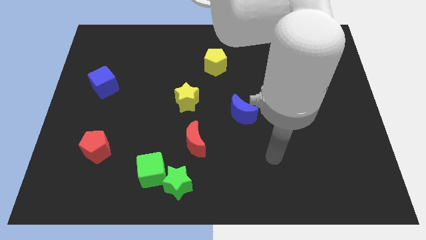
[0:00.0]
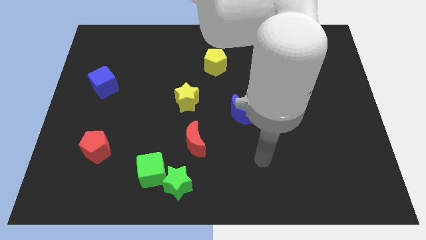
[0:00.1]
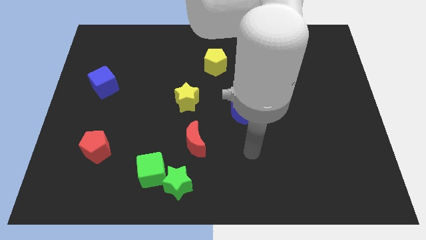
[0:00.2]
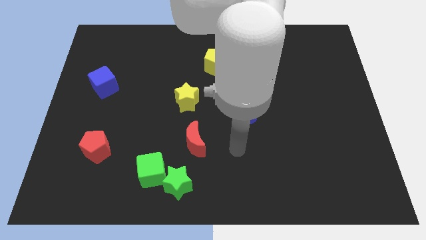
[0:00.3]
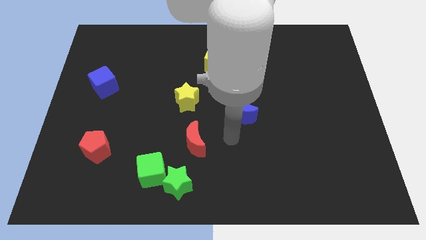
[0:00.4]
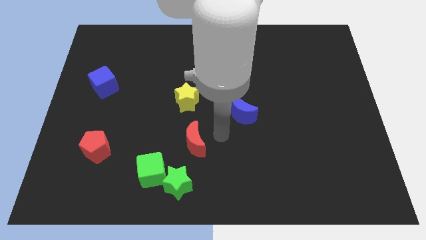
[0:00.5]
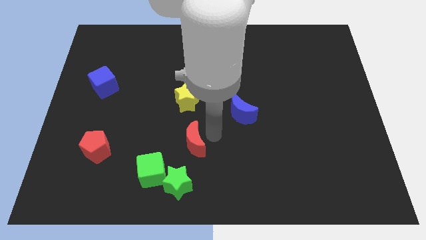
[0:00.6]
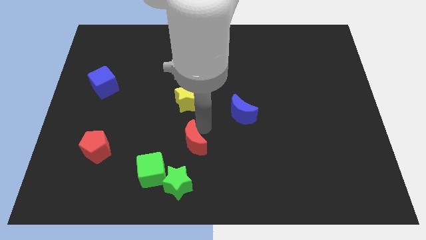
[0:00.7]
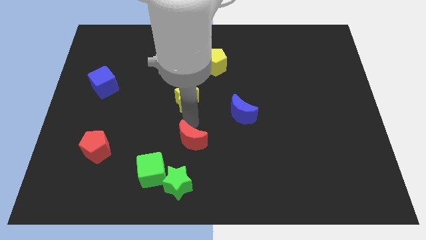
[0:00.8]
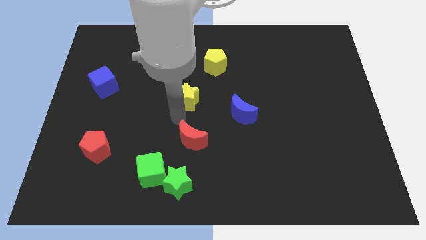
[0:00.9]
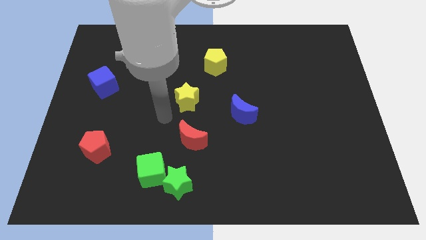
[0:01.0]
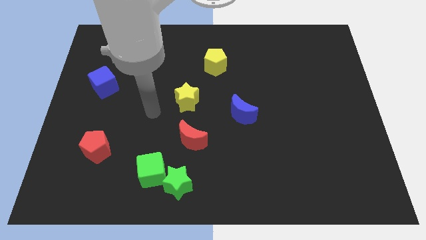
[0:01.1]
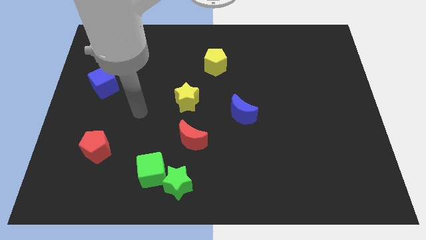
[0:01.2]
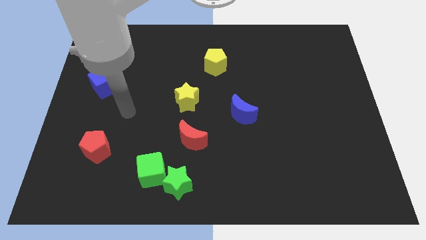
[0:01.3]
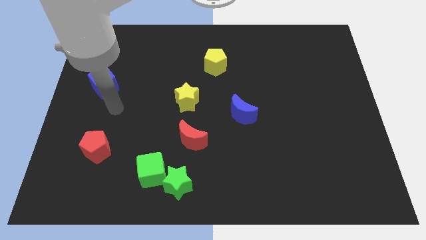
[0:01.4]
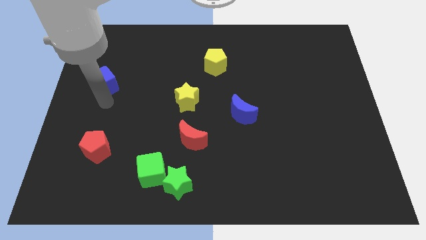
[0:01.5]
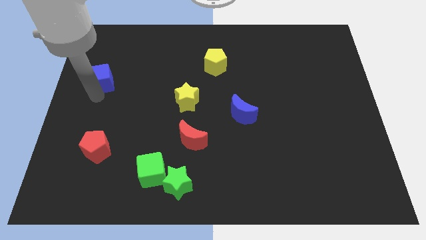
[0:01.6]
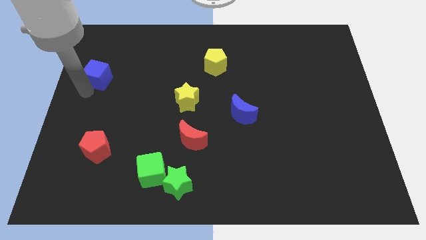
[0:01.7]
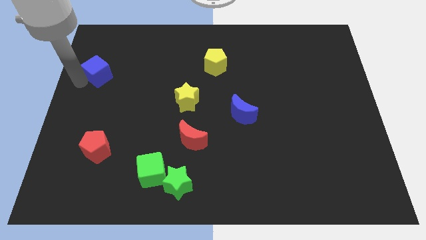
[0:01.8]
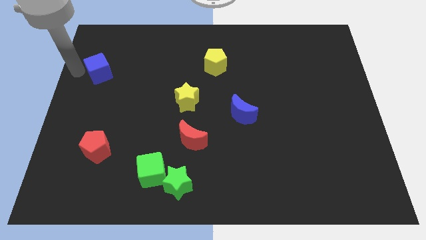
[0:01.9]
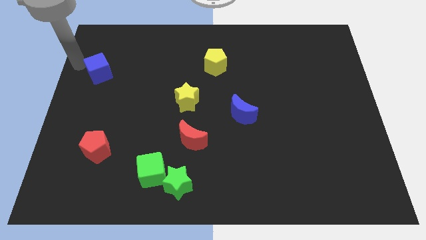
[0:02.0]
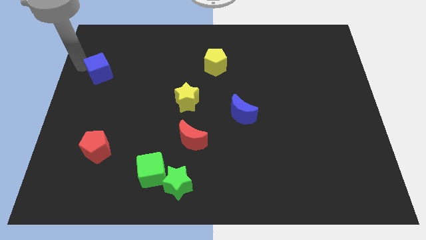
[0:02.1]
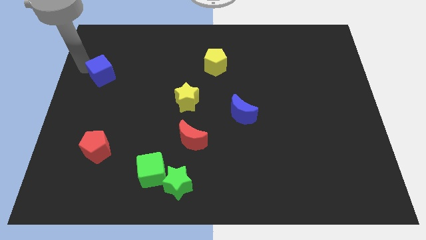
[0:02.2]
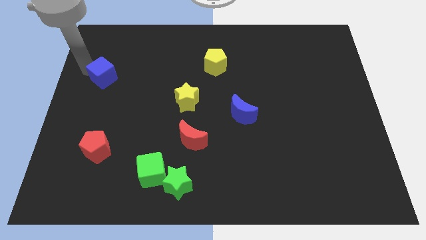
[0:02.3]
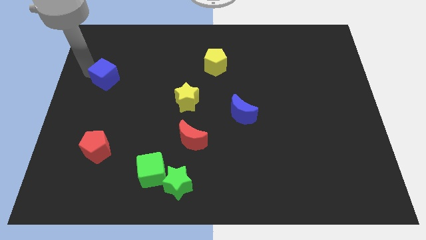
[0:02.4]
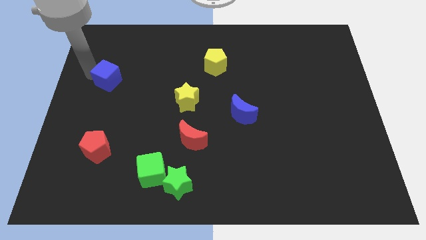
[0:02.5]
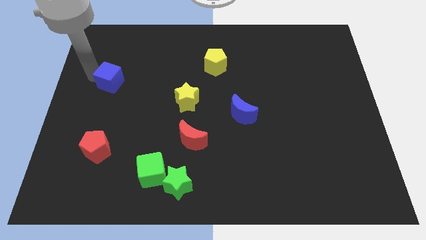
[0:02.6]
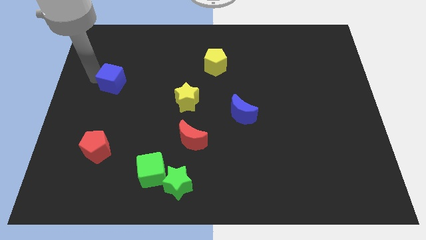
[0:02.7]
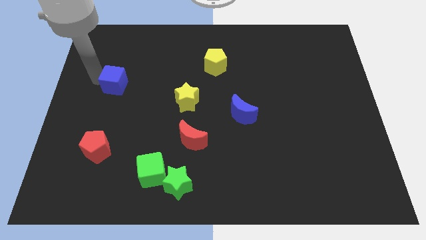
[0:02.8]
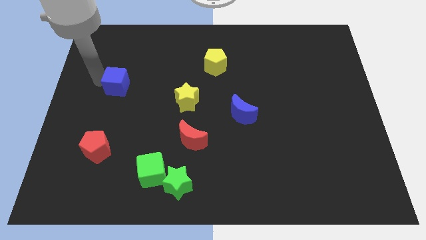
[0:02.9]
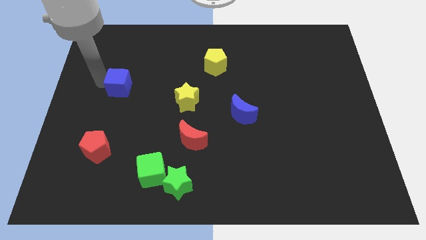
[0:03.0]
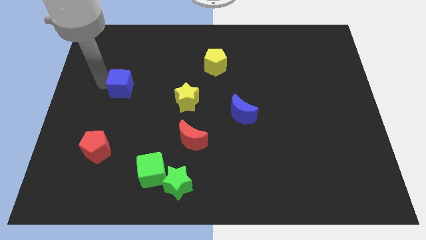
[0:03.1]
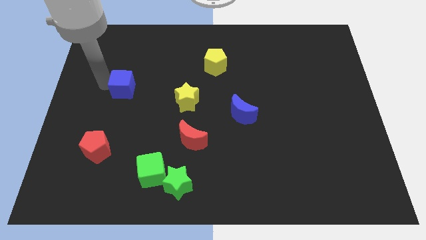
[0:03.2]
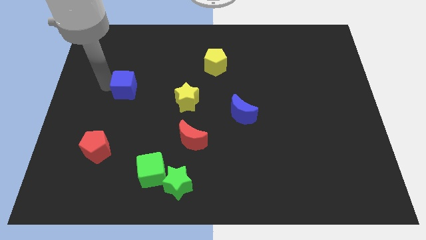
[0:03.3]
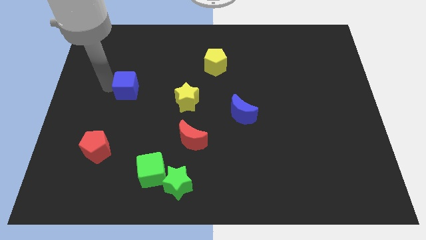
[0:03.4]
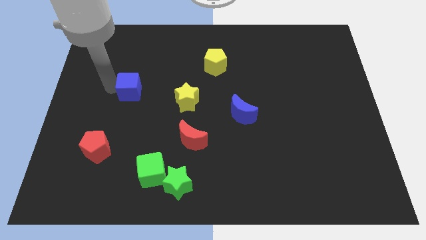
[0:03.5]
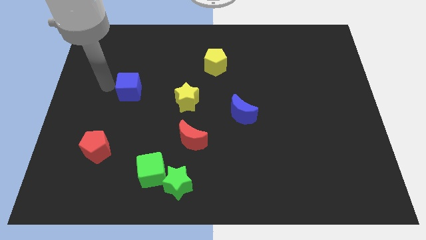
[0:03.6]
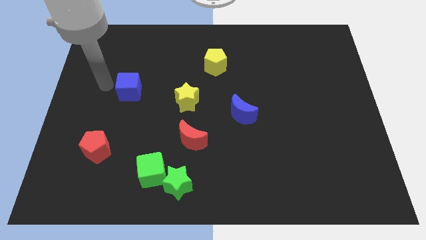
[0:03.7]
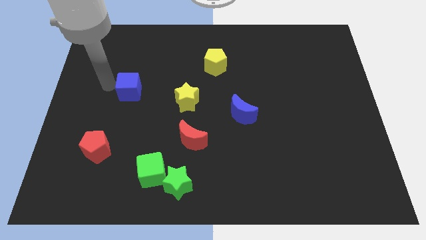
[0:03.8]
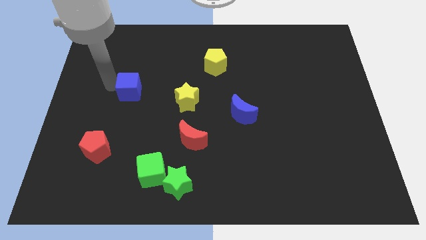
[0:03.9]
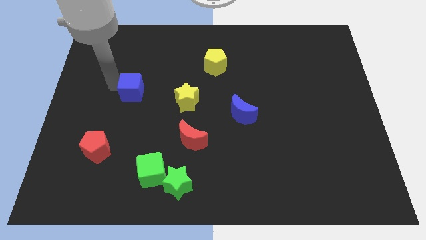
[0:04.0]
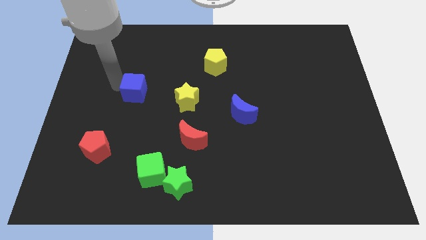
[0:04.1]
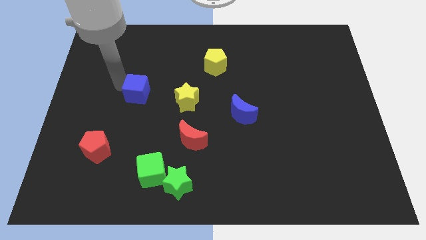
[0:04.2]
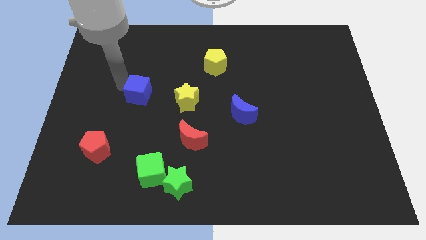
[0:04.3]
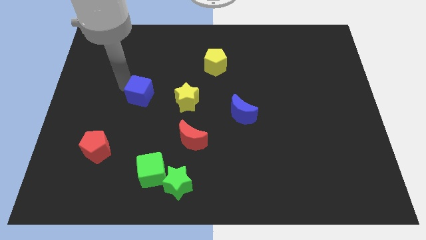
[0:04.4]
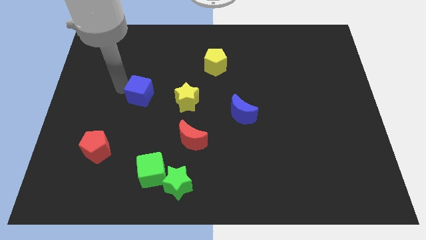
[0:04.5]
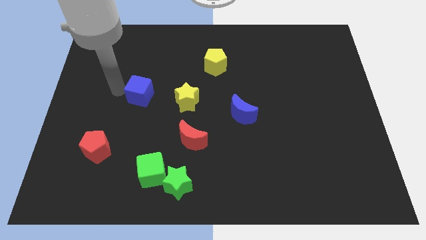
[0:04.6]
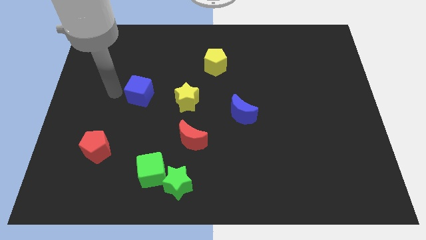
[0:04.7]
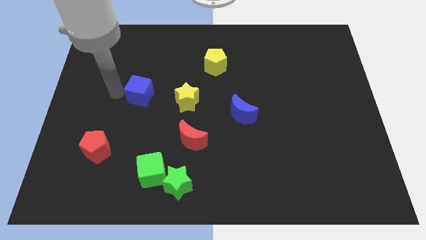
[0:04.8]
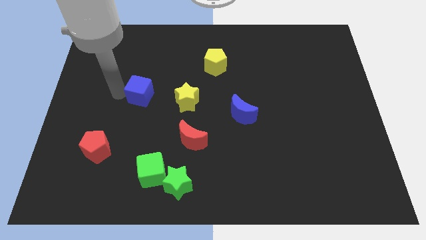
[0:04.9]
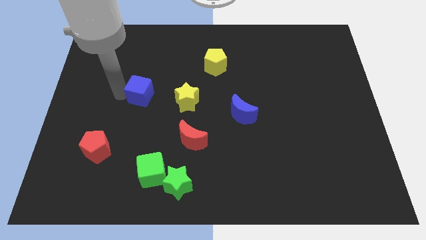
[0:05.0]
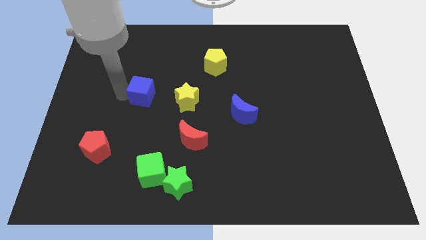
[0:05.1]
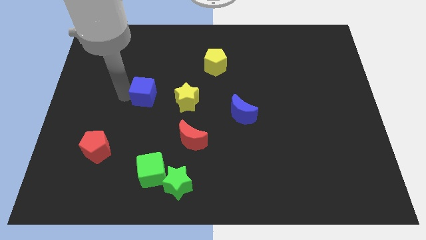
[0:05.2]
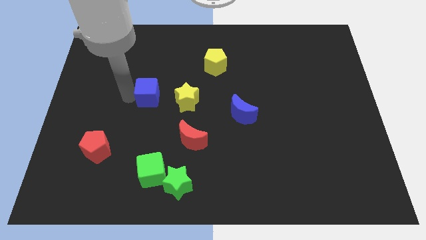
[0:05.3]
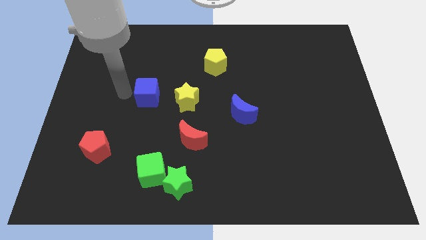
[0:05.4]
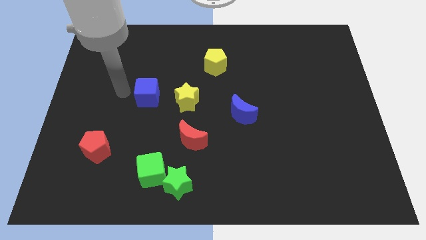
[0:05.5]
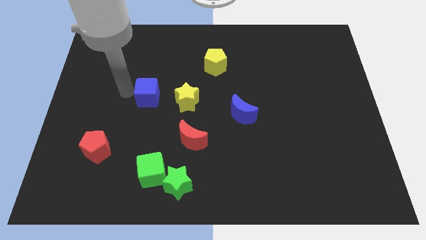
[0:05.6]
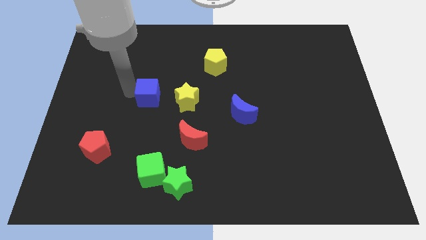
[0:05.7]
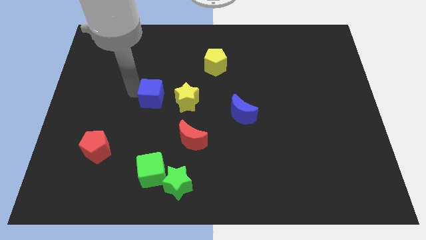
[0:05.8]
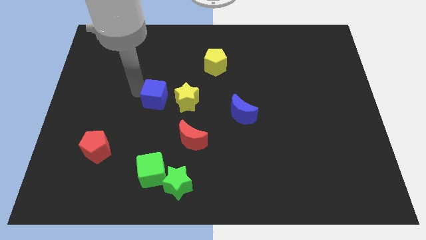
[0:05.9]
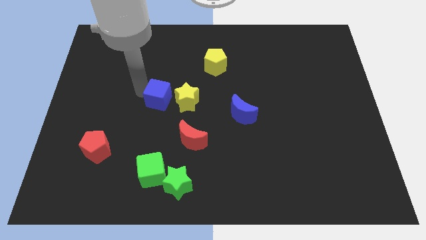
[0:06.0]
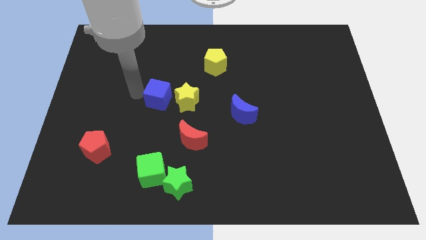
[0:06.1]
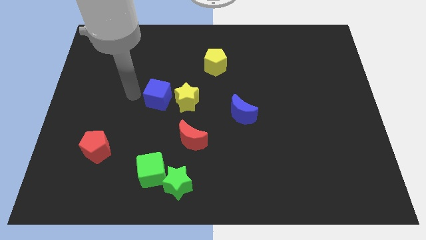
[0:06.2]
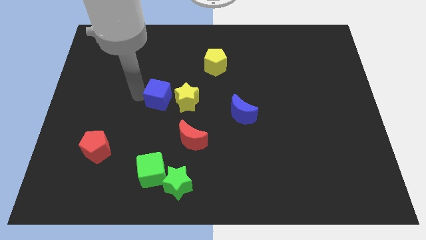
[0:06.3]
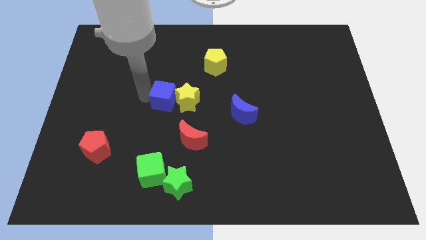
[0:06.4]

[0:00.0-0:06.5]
slide the blue cube next to the yellow star

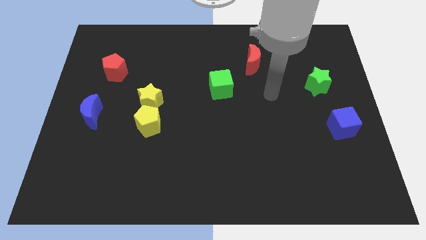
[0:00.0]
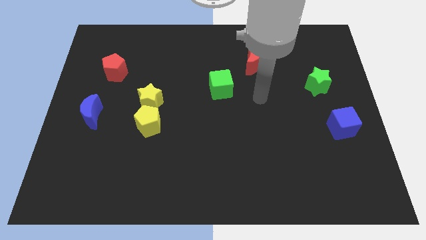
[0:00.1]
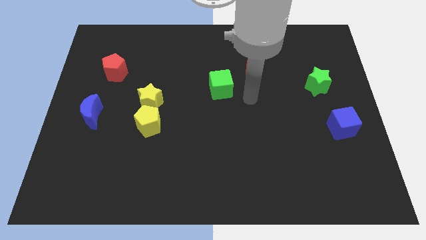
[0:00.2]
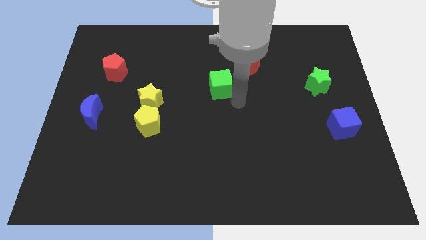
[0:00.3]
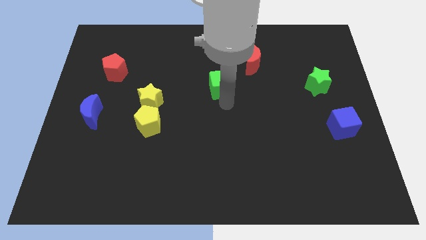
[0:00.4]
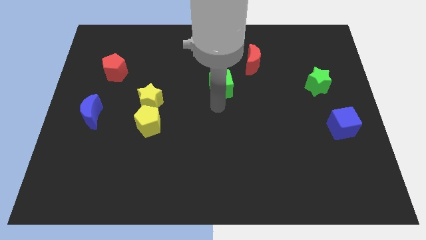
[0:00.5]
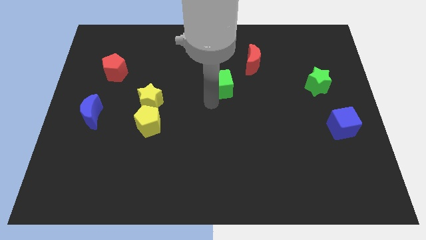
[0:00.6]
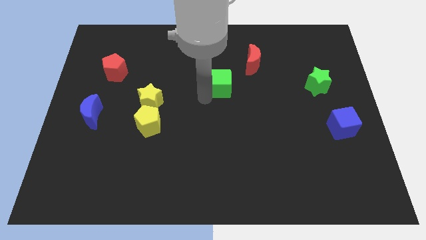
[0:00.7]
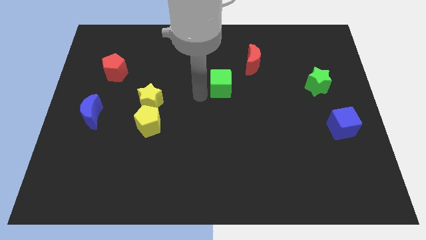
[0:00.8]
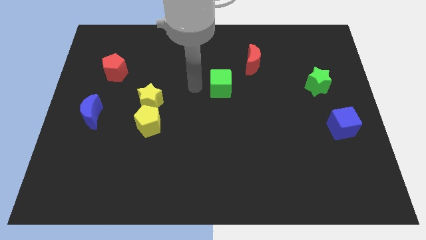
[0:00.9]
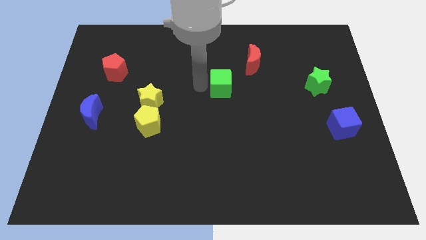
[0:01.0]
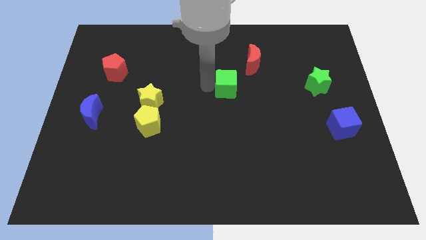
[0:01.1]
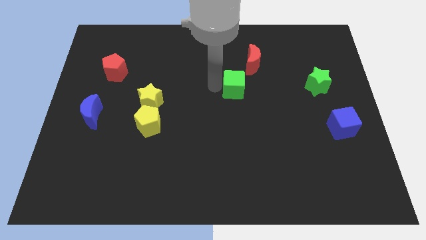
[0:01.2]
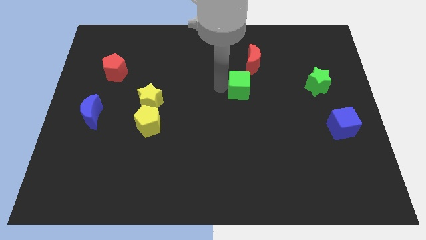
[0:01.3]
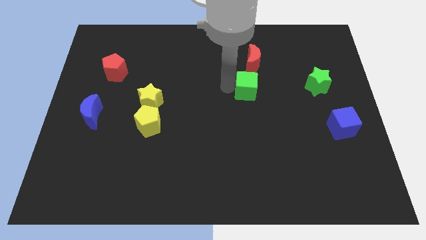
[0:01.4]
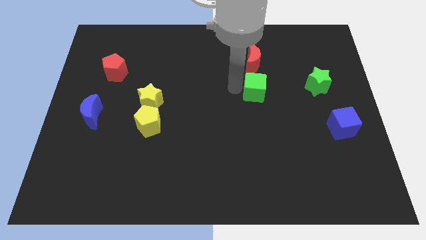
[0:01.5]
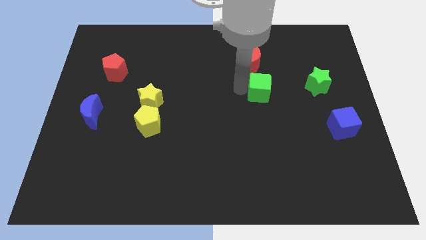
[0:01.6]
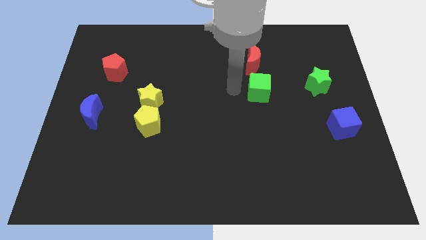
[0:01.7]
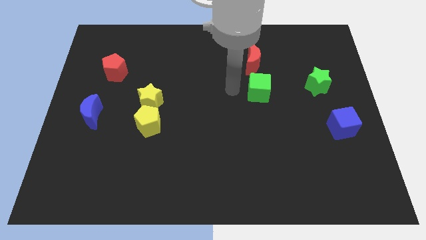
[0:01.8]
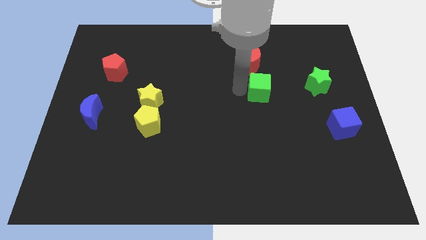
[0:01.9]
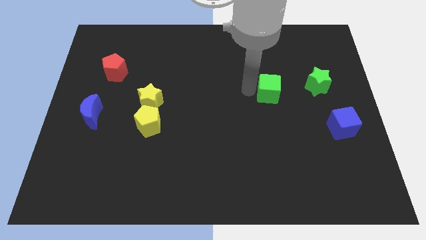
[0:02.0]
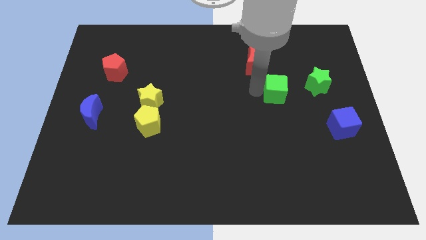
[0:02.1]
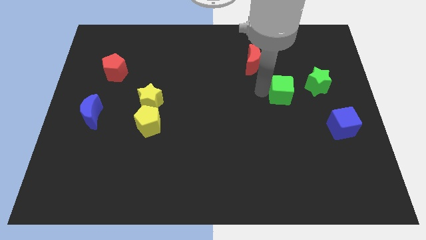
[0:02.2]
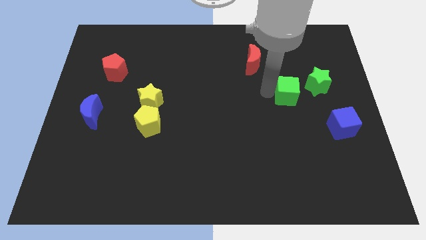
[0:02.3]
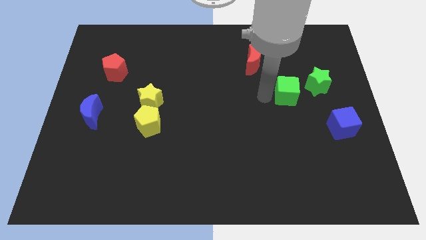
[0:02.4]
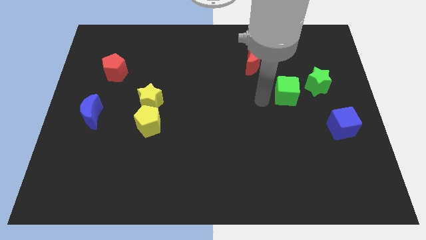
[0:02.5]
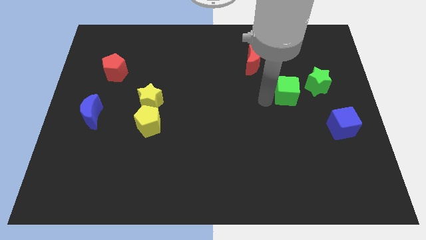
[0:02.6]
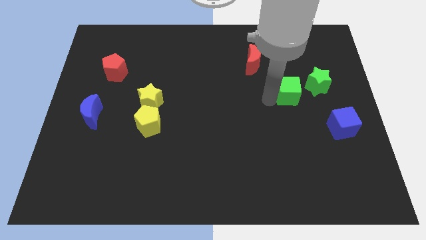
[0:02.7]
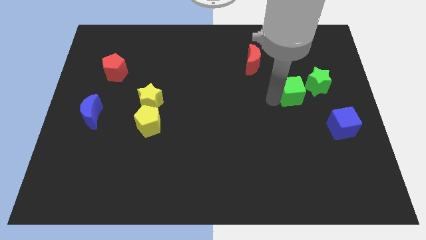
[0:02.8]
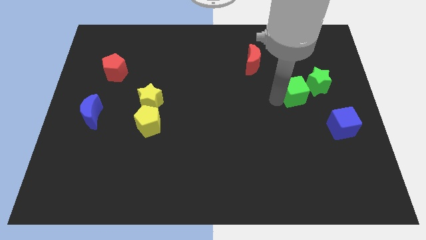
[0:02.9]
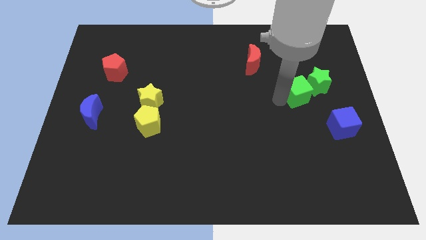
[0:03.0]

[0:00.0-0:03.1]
push the green cube close to the green star
